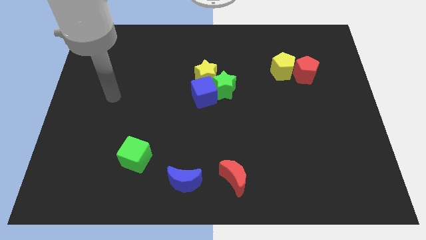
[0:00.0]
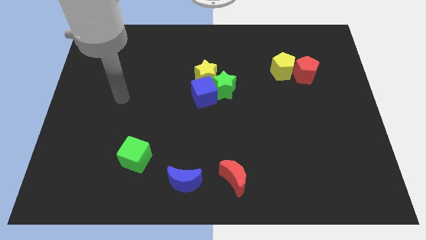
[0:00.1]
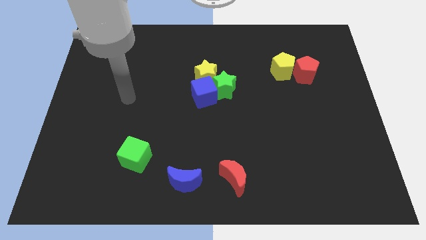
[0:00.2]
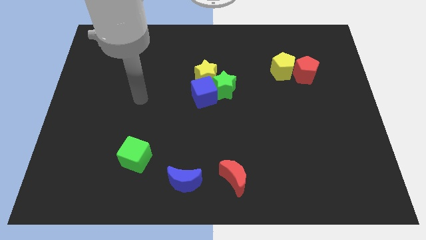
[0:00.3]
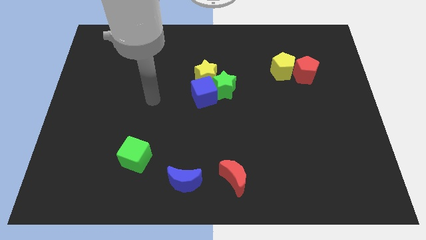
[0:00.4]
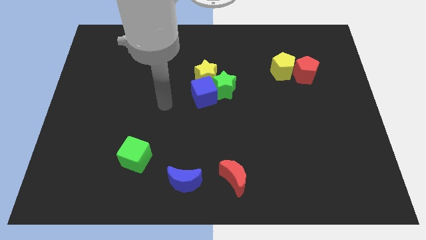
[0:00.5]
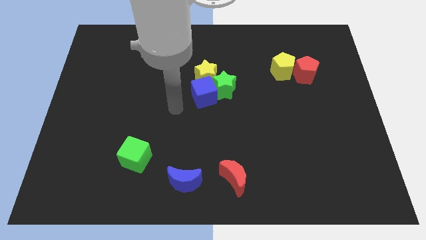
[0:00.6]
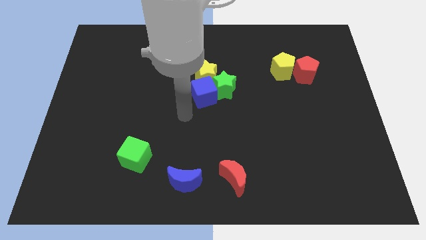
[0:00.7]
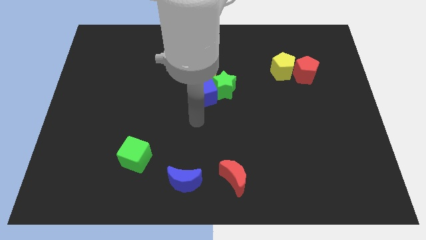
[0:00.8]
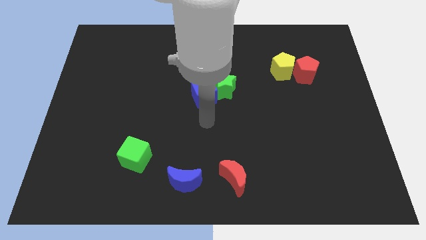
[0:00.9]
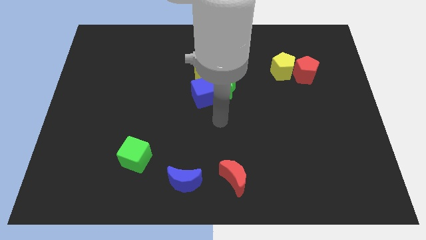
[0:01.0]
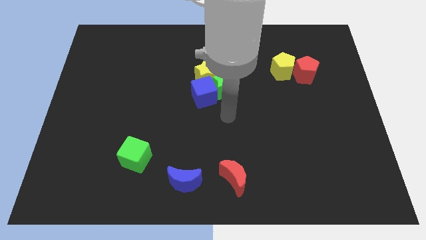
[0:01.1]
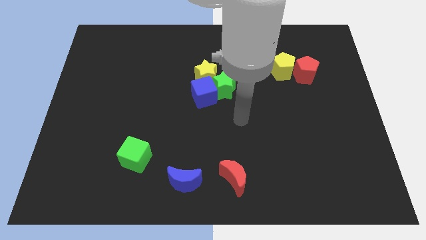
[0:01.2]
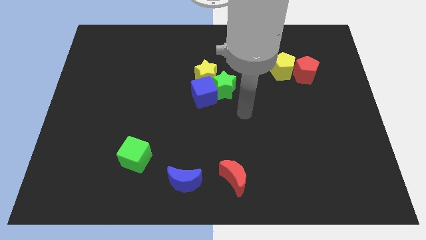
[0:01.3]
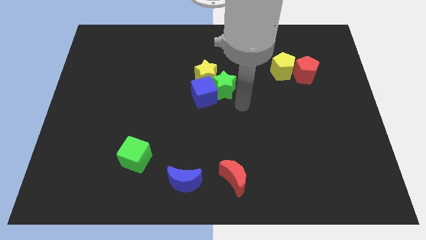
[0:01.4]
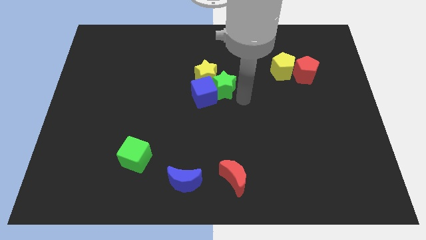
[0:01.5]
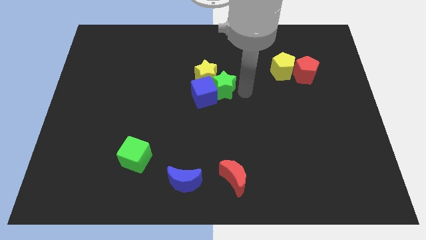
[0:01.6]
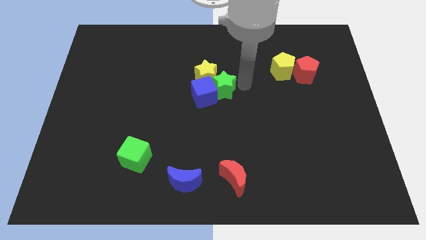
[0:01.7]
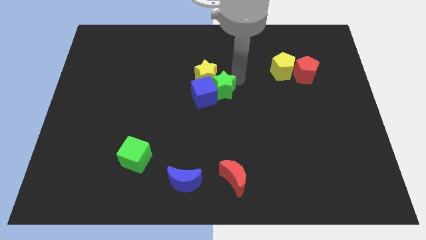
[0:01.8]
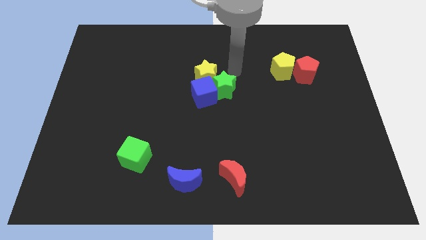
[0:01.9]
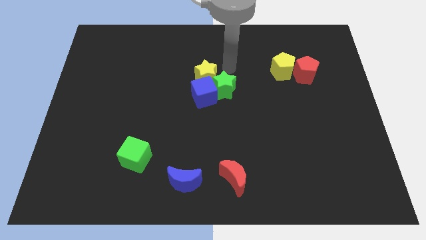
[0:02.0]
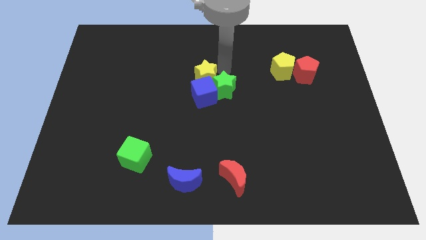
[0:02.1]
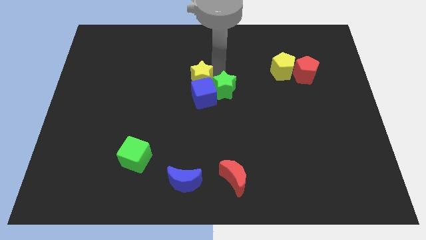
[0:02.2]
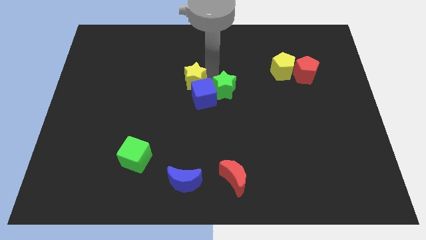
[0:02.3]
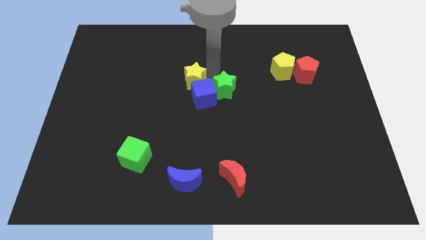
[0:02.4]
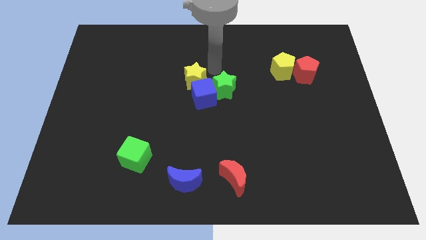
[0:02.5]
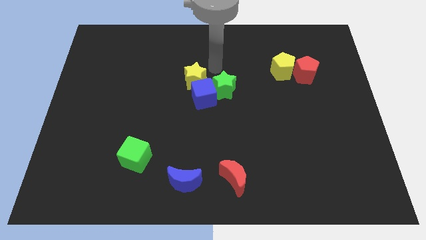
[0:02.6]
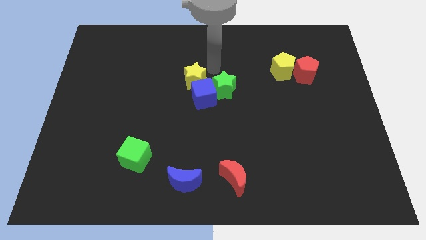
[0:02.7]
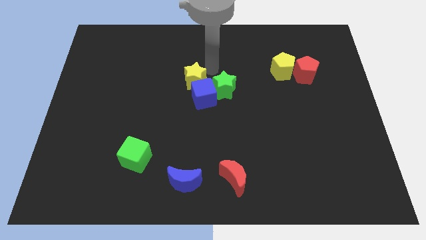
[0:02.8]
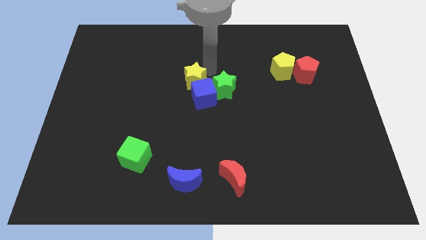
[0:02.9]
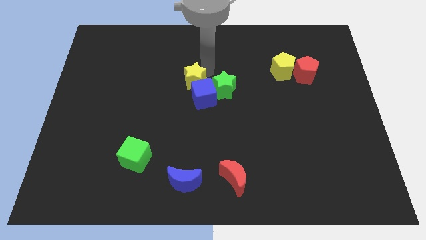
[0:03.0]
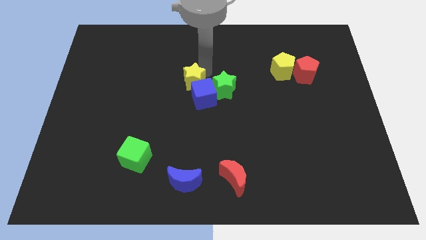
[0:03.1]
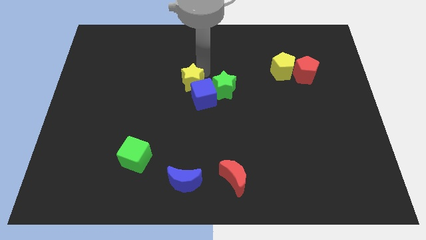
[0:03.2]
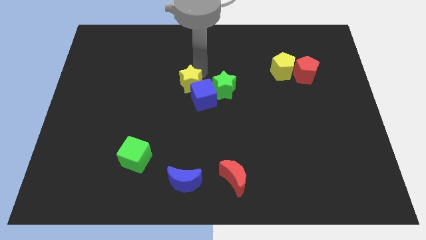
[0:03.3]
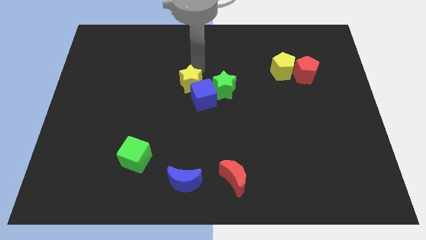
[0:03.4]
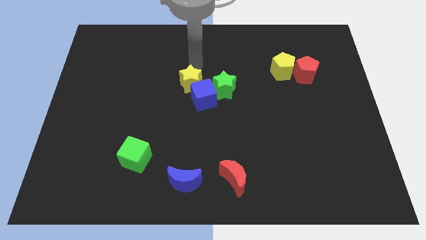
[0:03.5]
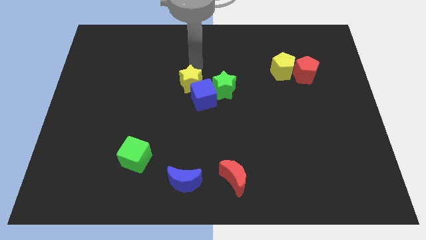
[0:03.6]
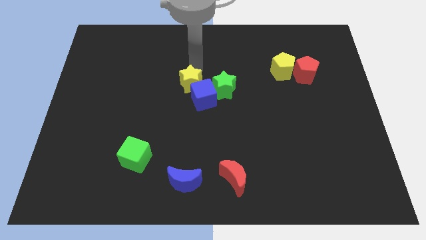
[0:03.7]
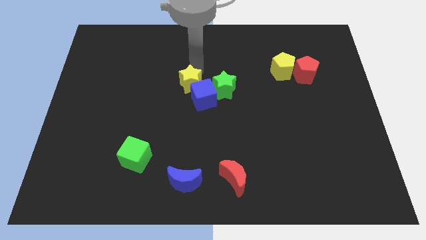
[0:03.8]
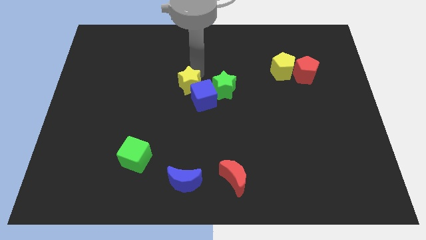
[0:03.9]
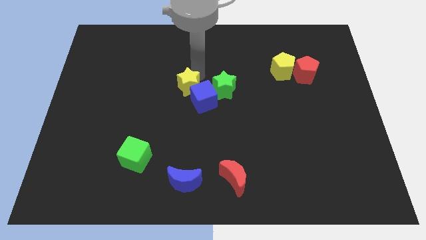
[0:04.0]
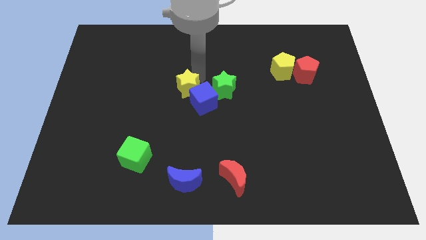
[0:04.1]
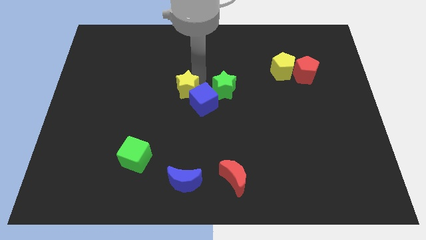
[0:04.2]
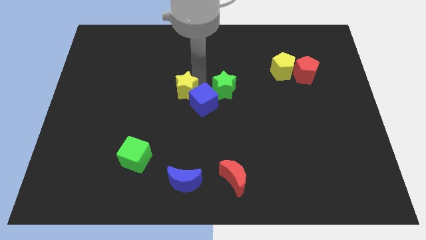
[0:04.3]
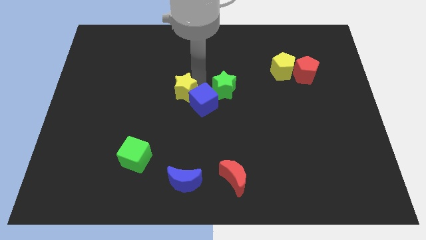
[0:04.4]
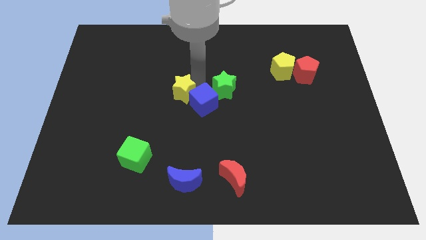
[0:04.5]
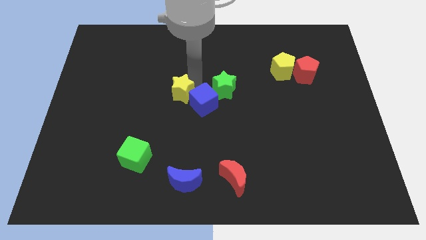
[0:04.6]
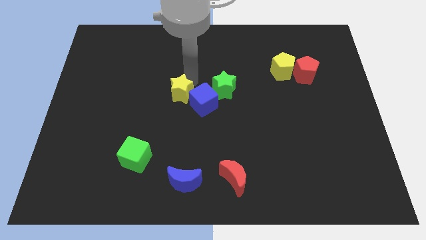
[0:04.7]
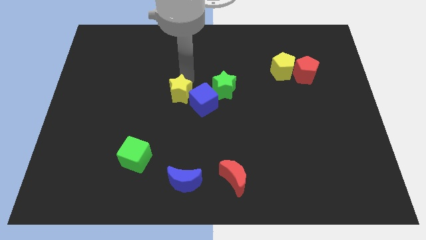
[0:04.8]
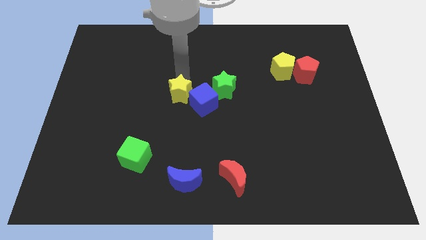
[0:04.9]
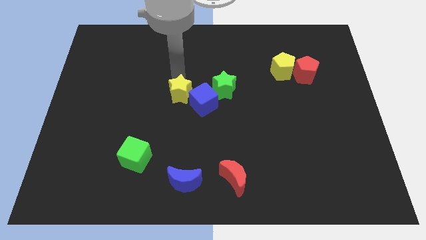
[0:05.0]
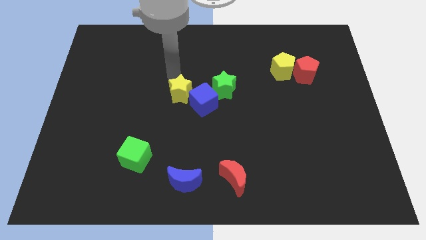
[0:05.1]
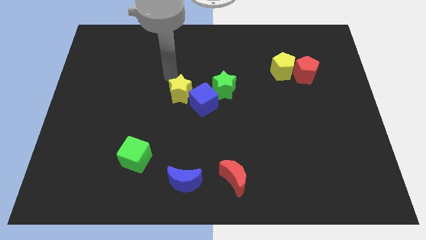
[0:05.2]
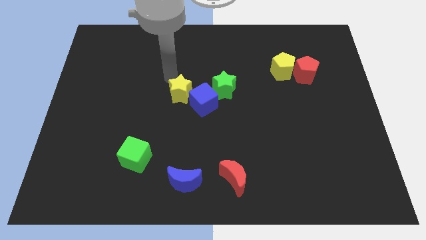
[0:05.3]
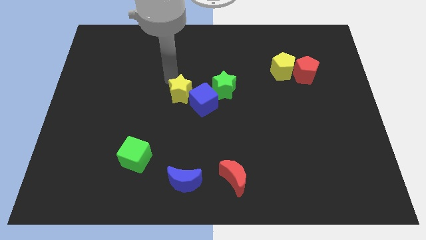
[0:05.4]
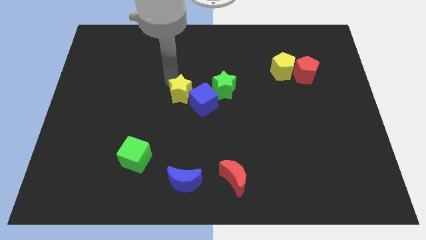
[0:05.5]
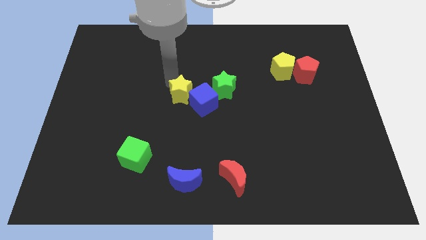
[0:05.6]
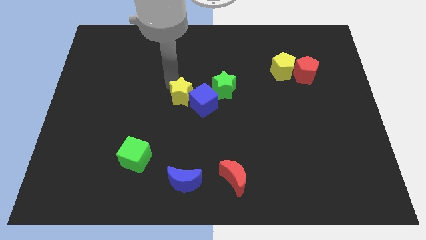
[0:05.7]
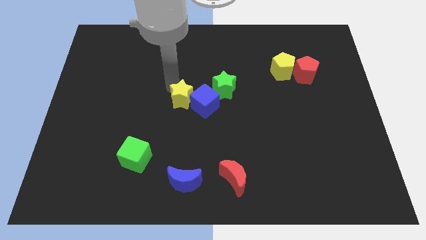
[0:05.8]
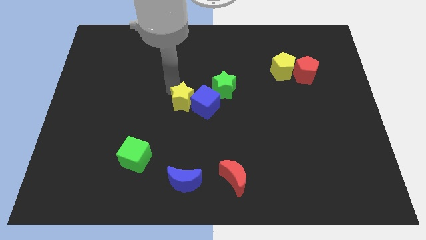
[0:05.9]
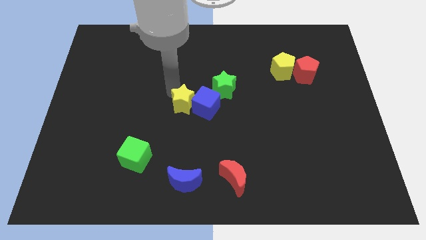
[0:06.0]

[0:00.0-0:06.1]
slightly push the yellow star down

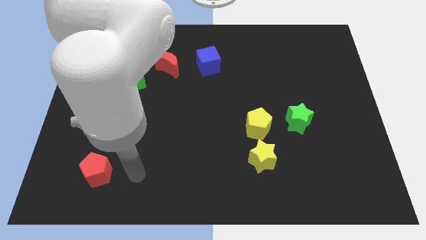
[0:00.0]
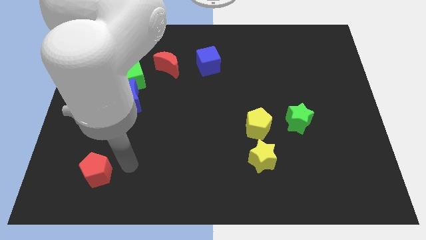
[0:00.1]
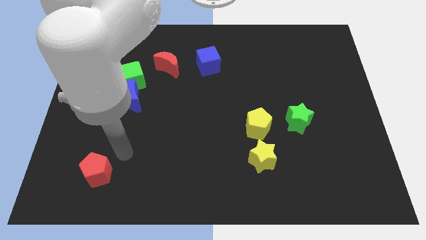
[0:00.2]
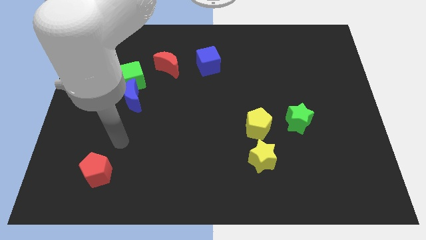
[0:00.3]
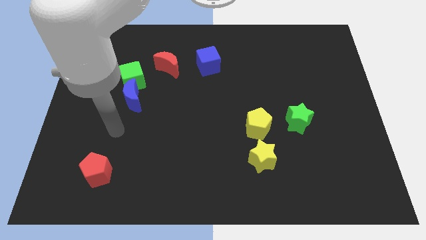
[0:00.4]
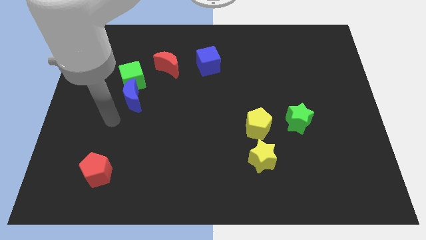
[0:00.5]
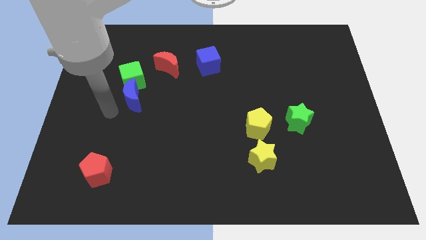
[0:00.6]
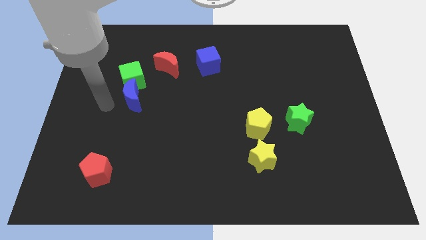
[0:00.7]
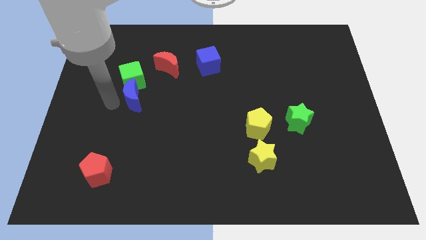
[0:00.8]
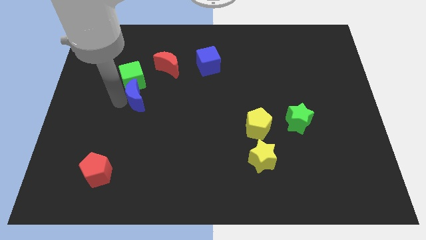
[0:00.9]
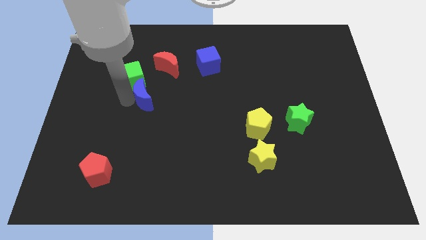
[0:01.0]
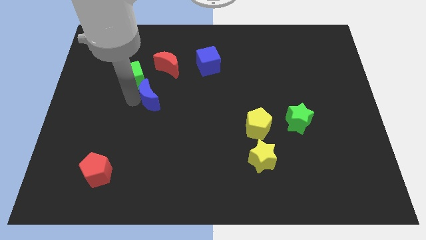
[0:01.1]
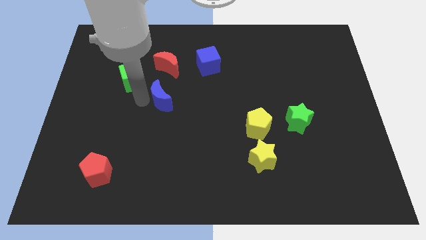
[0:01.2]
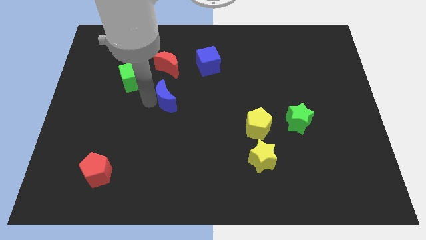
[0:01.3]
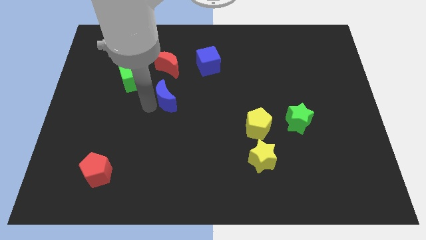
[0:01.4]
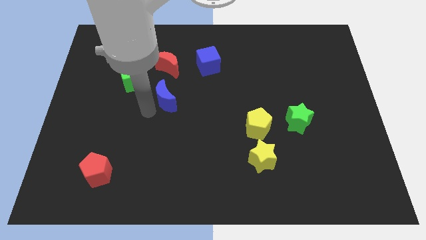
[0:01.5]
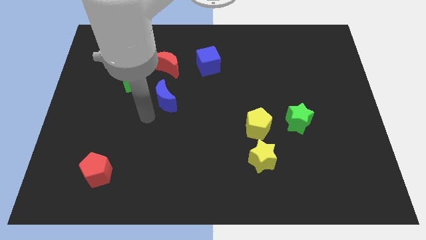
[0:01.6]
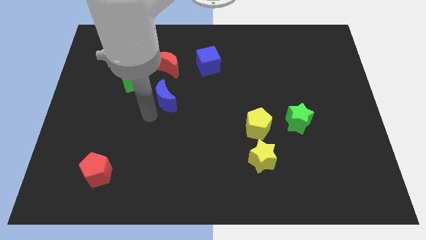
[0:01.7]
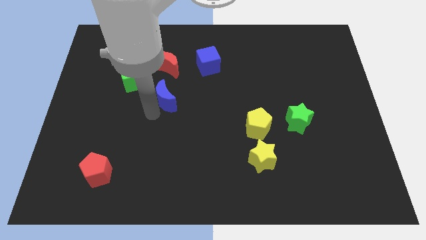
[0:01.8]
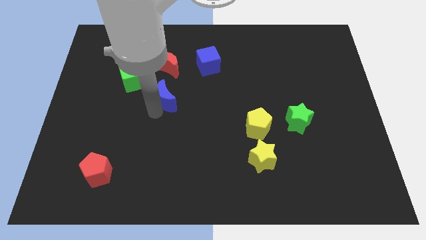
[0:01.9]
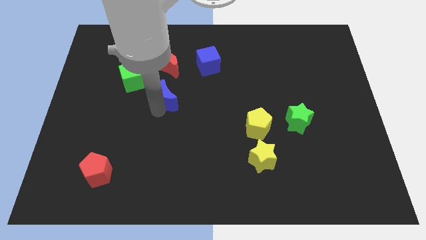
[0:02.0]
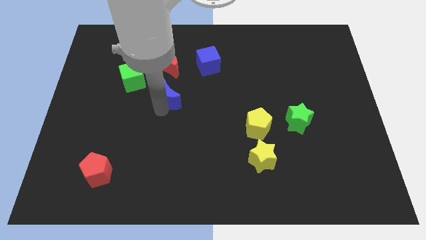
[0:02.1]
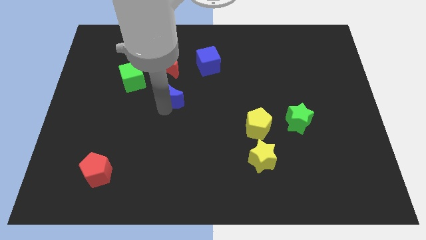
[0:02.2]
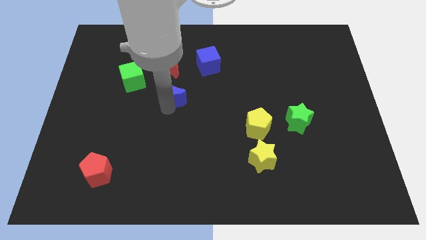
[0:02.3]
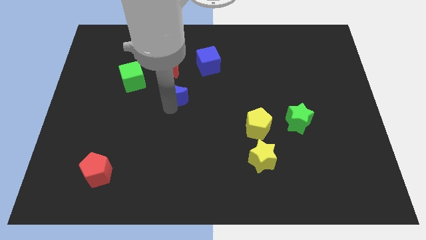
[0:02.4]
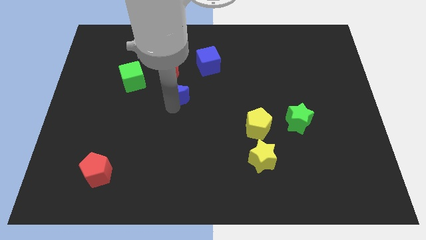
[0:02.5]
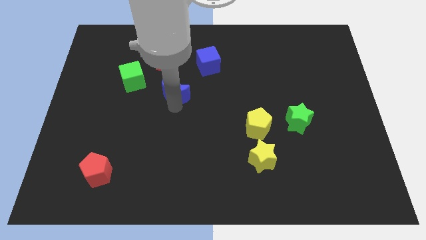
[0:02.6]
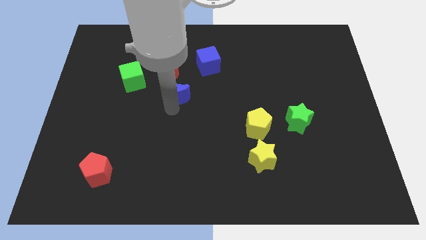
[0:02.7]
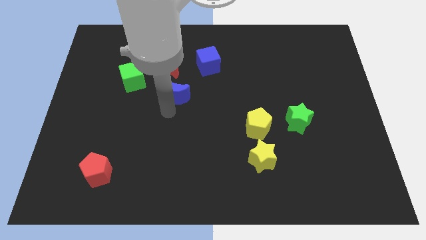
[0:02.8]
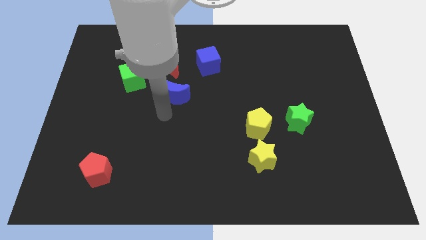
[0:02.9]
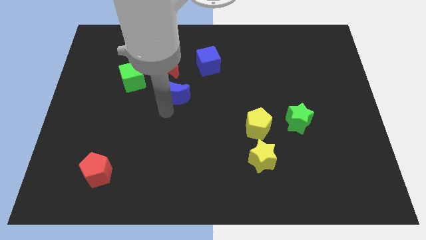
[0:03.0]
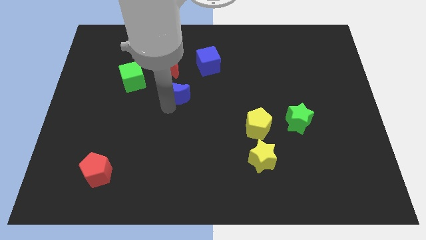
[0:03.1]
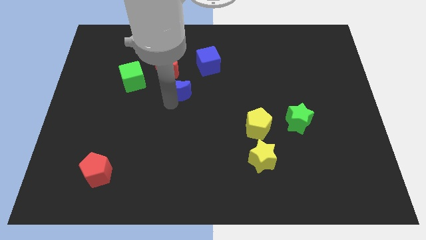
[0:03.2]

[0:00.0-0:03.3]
slightly push the blue moon diagonally upwards and to the right
